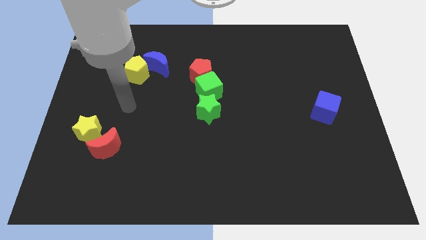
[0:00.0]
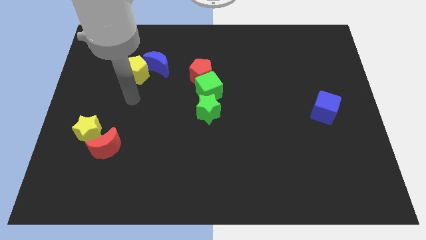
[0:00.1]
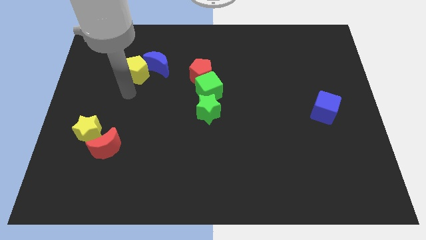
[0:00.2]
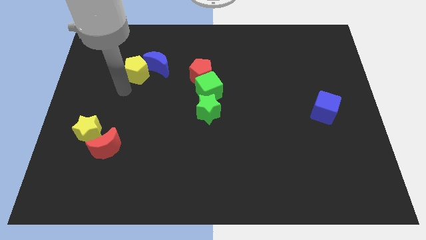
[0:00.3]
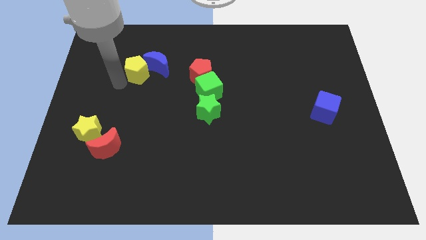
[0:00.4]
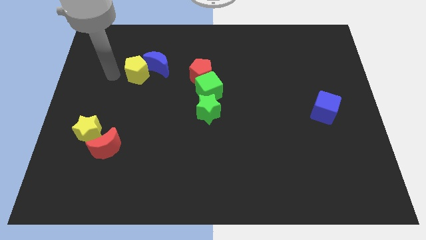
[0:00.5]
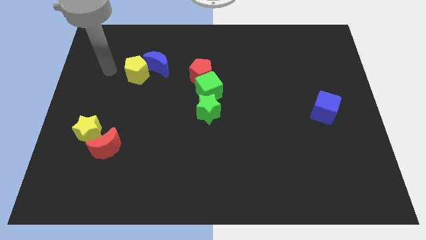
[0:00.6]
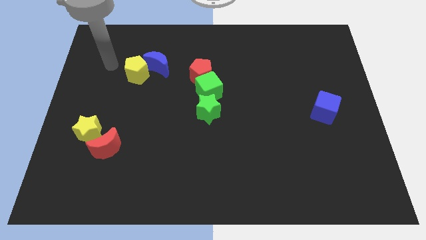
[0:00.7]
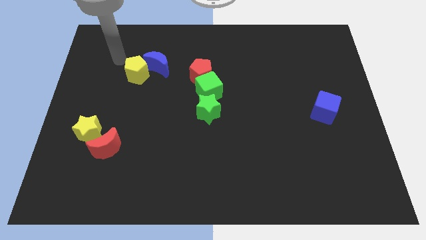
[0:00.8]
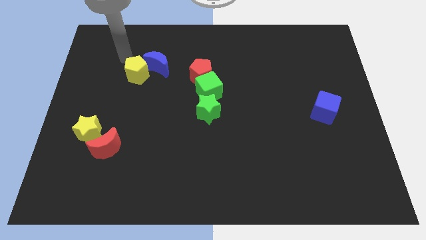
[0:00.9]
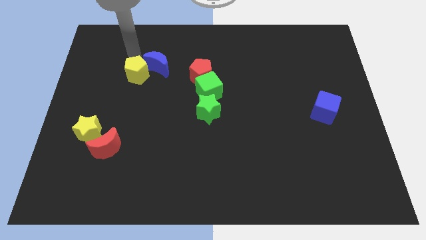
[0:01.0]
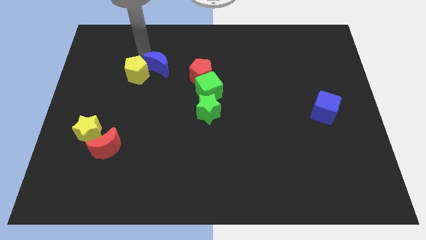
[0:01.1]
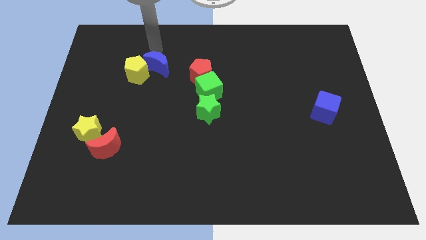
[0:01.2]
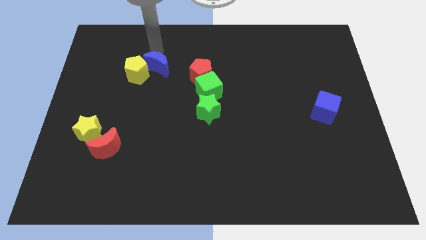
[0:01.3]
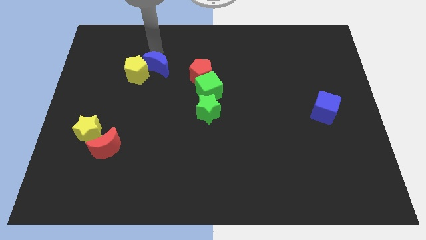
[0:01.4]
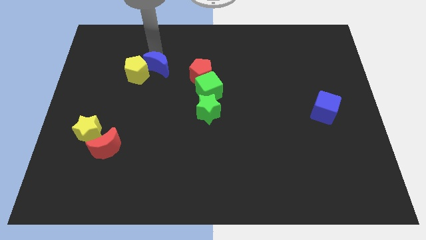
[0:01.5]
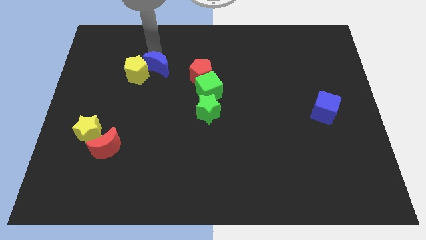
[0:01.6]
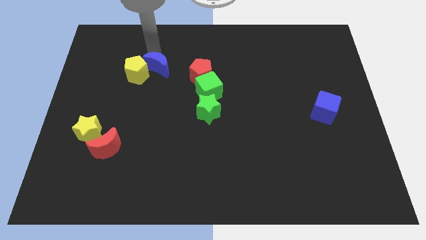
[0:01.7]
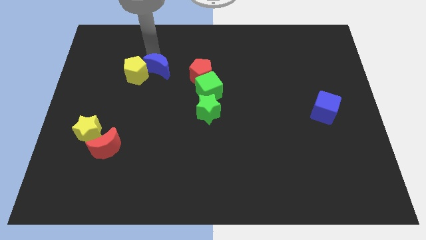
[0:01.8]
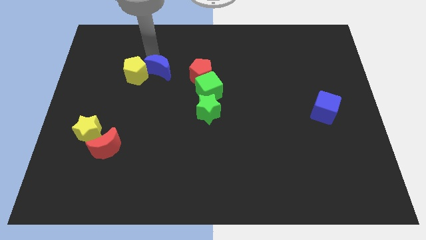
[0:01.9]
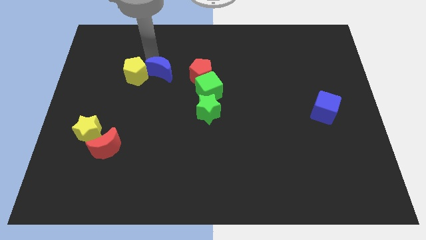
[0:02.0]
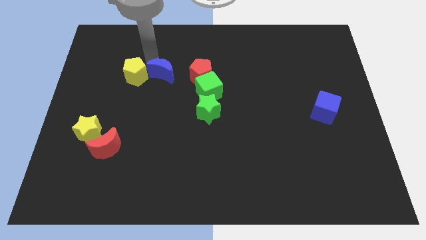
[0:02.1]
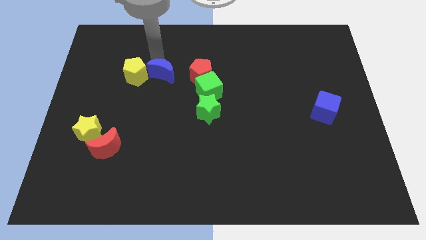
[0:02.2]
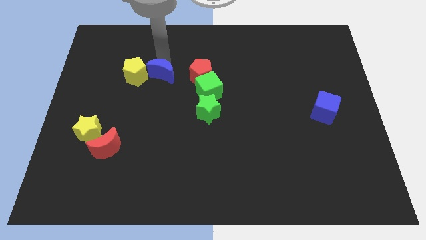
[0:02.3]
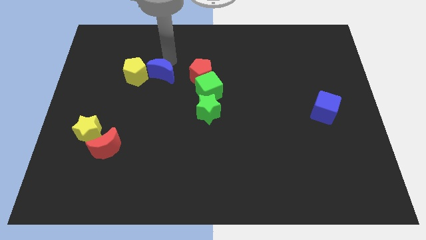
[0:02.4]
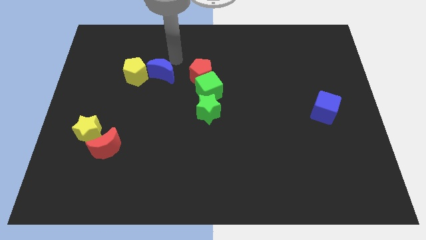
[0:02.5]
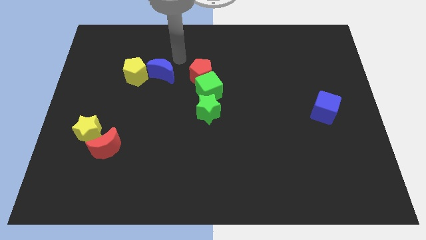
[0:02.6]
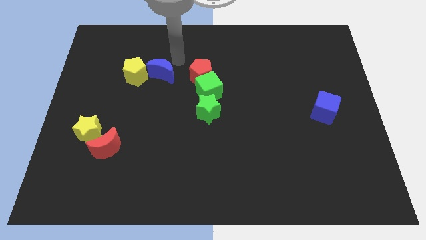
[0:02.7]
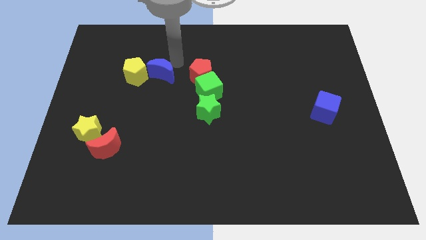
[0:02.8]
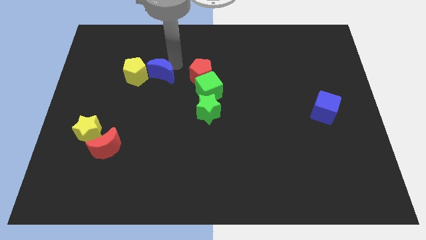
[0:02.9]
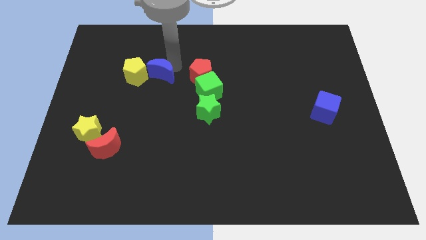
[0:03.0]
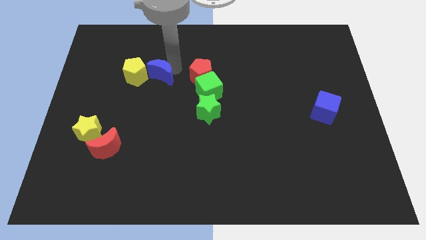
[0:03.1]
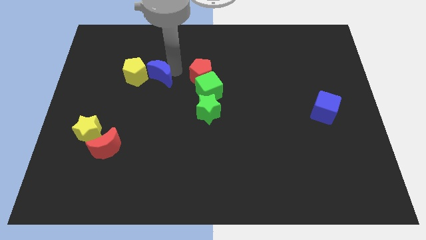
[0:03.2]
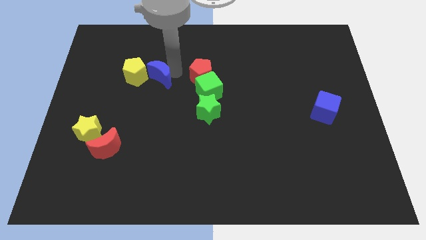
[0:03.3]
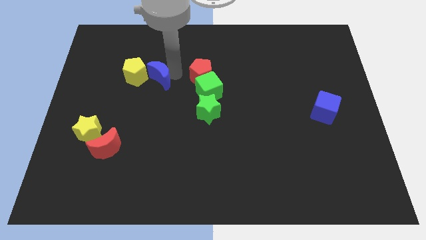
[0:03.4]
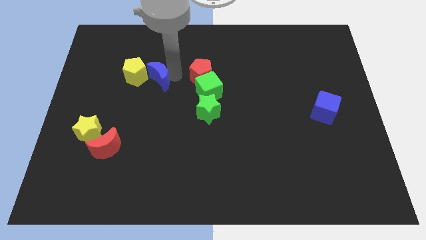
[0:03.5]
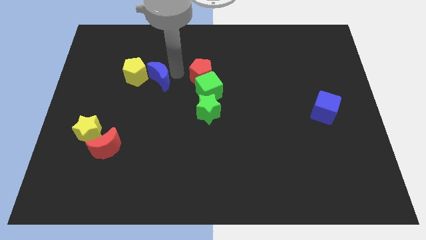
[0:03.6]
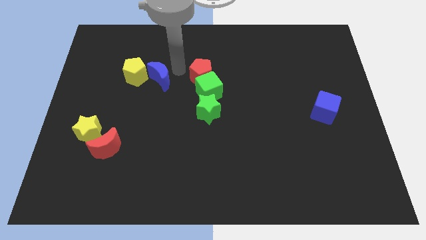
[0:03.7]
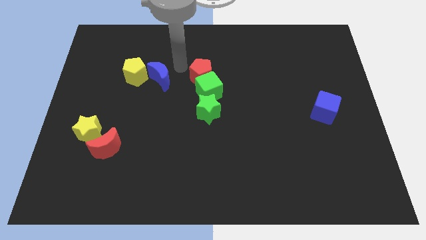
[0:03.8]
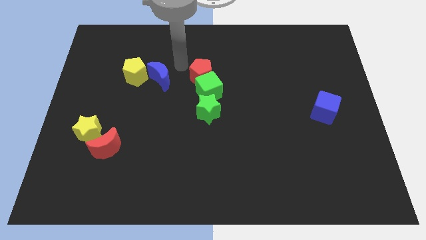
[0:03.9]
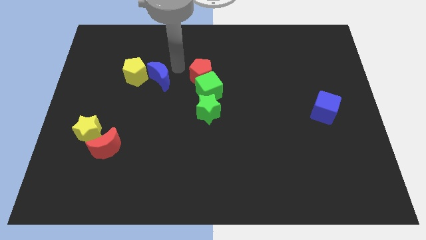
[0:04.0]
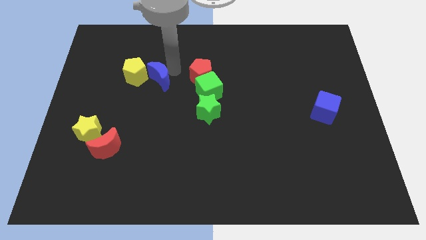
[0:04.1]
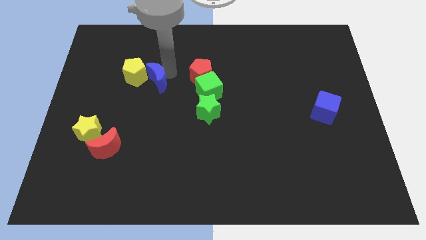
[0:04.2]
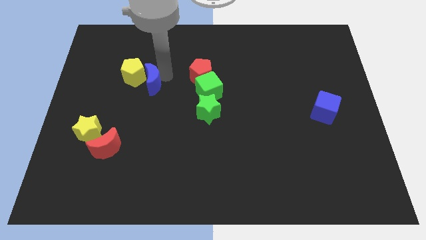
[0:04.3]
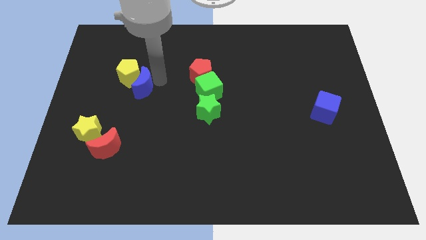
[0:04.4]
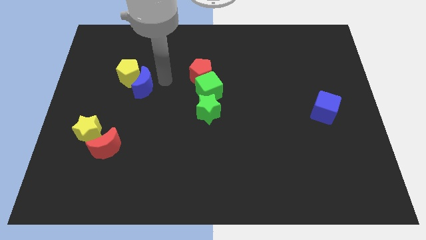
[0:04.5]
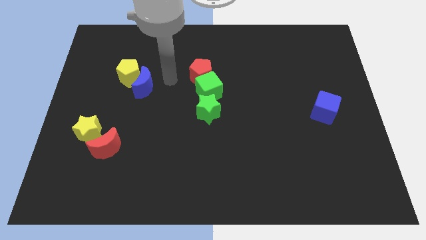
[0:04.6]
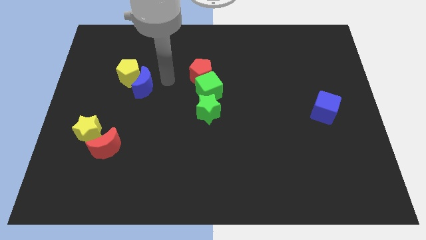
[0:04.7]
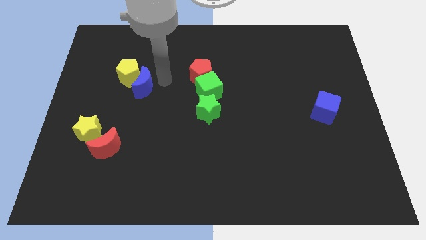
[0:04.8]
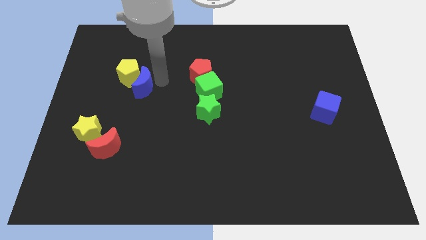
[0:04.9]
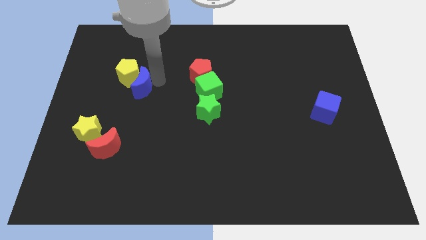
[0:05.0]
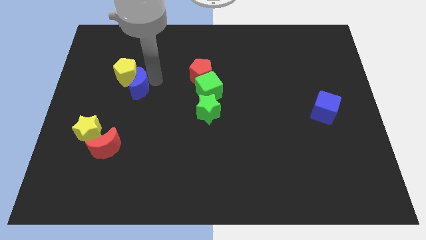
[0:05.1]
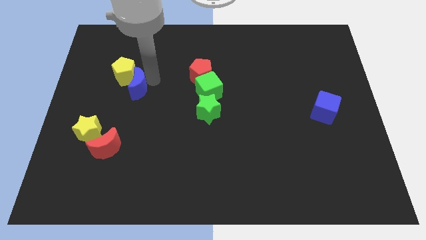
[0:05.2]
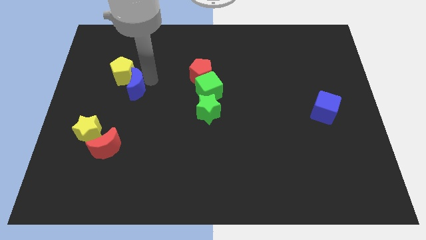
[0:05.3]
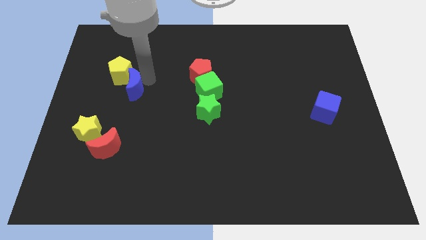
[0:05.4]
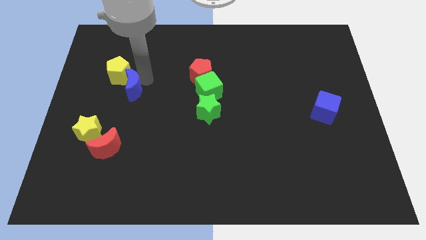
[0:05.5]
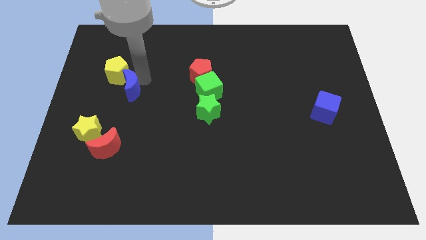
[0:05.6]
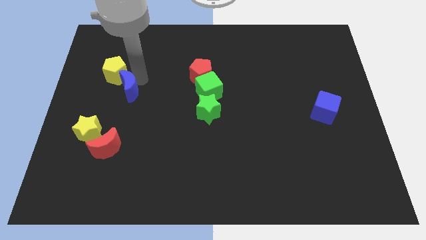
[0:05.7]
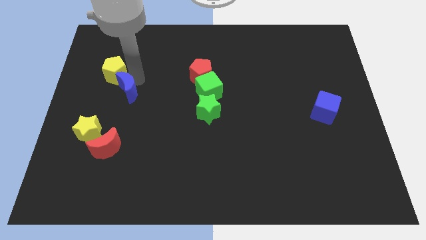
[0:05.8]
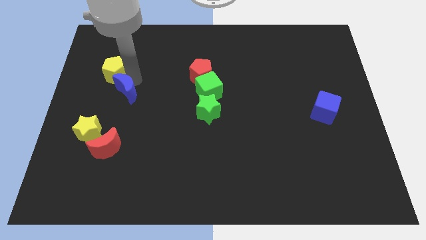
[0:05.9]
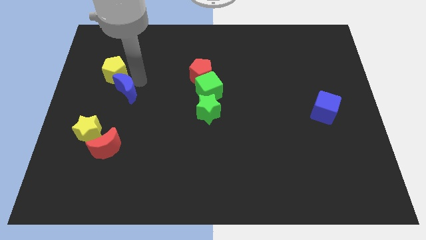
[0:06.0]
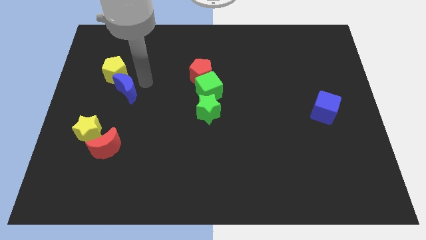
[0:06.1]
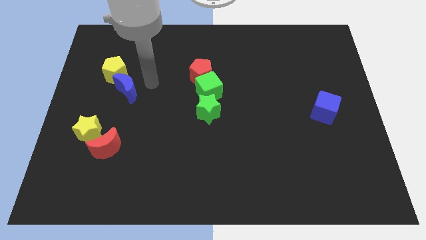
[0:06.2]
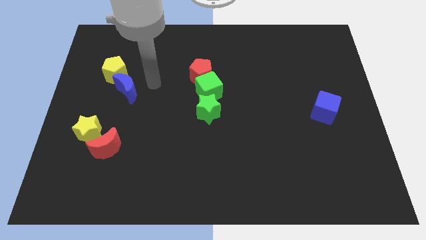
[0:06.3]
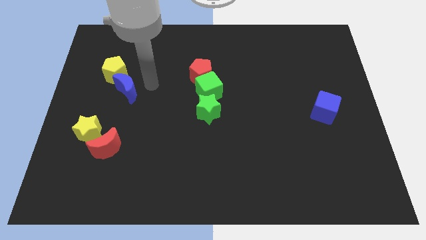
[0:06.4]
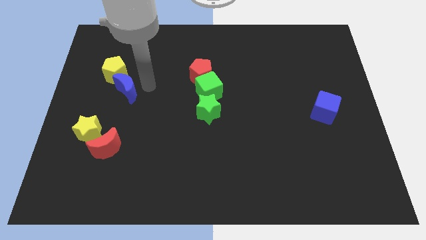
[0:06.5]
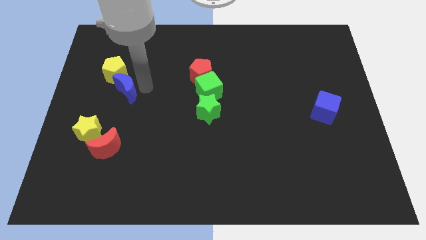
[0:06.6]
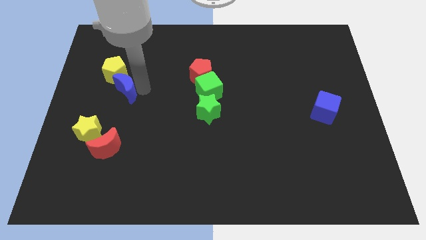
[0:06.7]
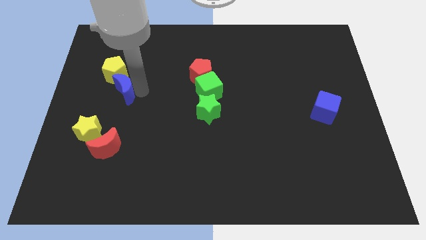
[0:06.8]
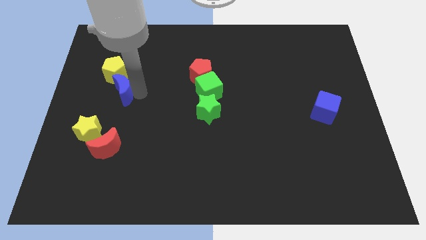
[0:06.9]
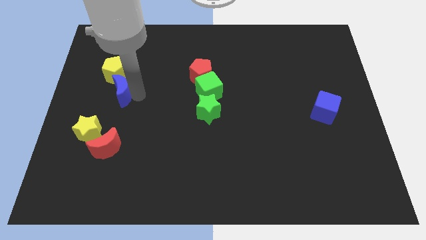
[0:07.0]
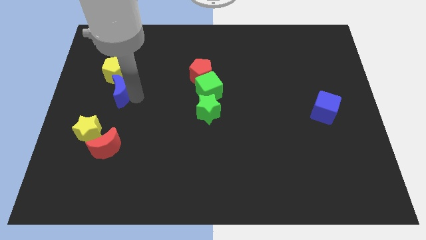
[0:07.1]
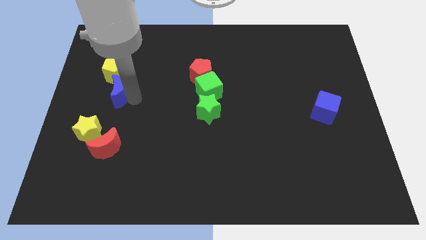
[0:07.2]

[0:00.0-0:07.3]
put the blue moon to the top side of the yellow star
